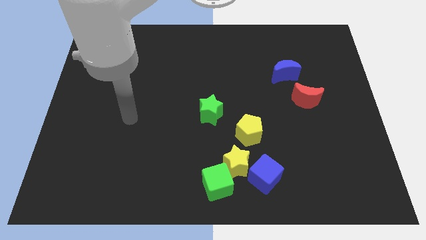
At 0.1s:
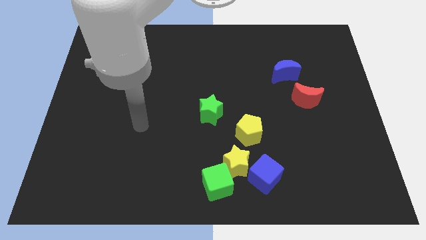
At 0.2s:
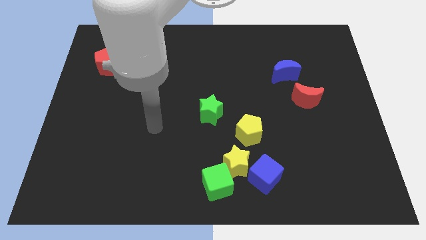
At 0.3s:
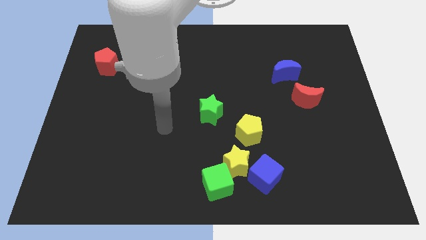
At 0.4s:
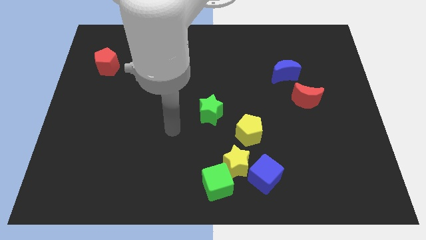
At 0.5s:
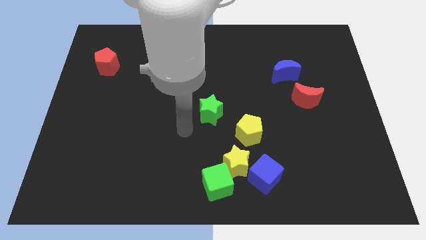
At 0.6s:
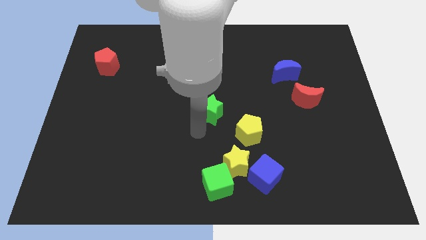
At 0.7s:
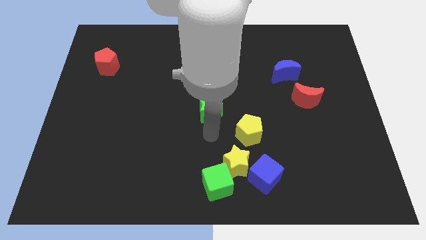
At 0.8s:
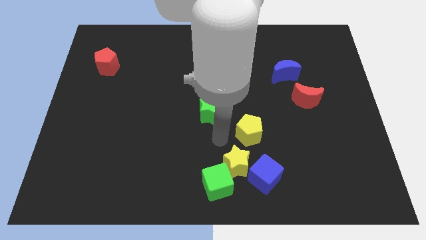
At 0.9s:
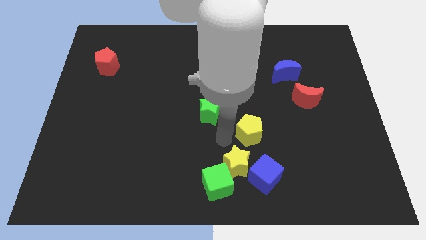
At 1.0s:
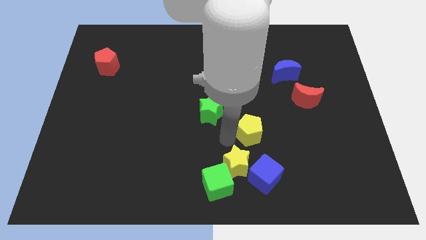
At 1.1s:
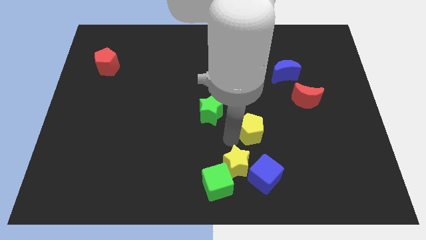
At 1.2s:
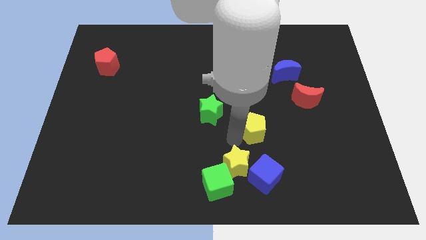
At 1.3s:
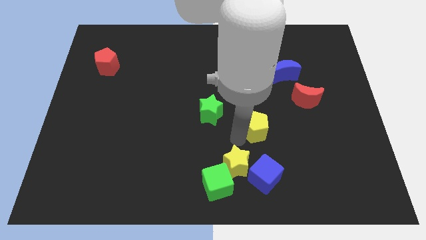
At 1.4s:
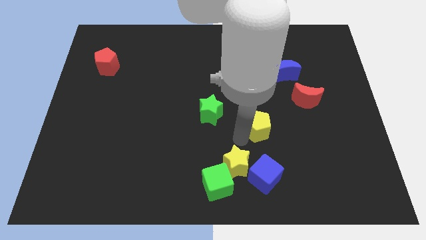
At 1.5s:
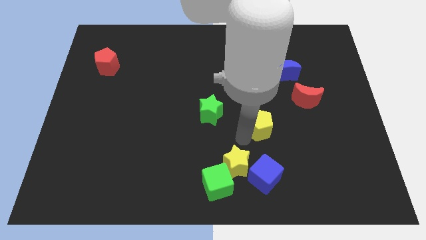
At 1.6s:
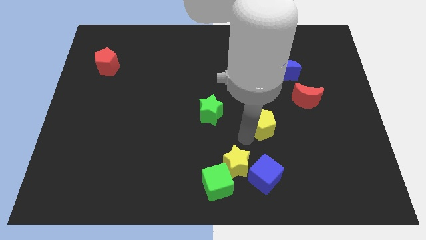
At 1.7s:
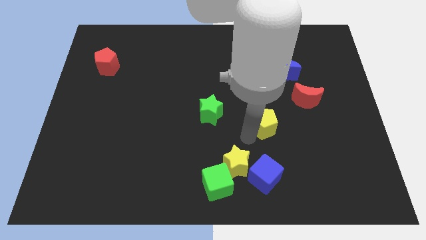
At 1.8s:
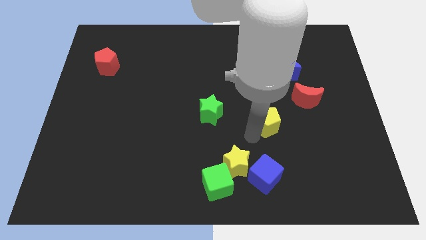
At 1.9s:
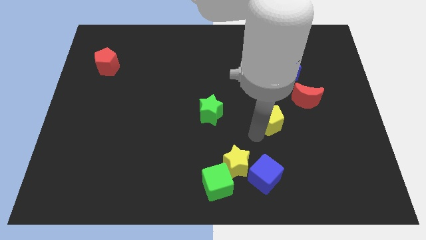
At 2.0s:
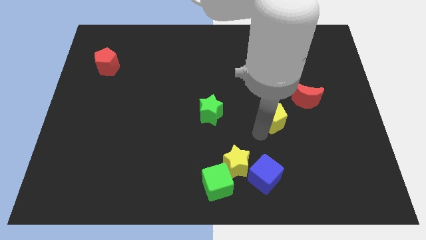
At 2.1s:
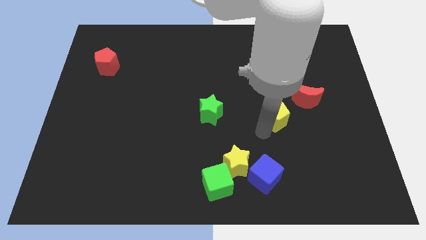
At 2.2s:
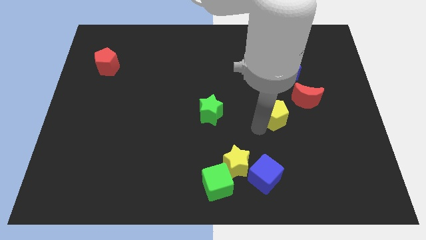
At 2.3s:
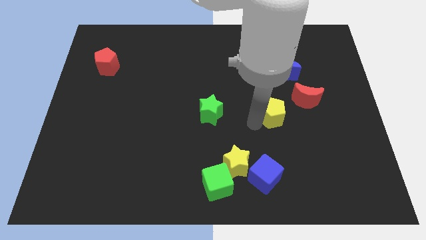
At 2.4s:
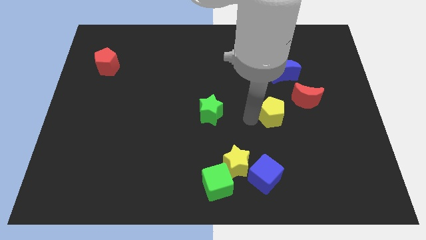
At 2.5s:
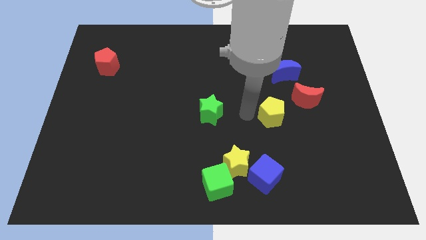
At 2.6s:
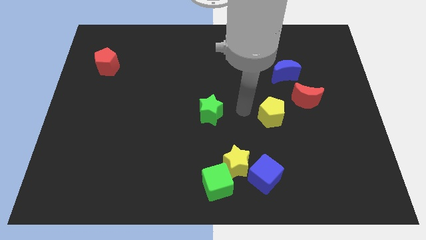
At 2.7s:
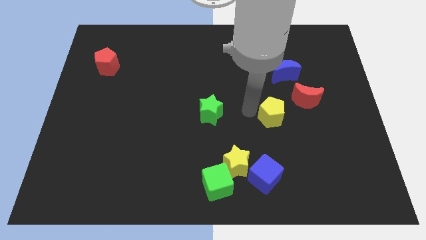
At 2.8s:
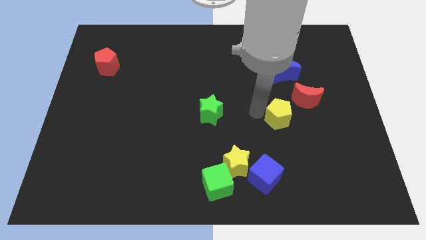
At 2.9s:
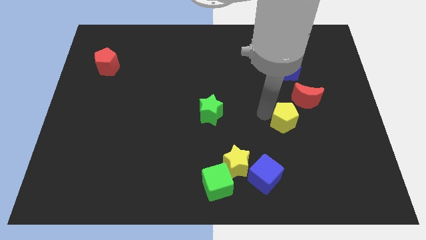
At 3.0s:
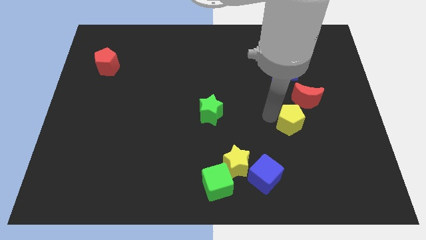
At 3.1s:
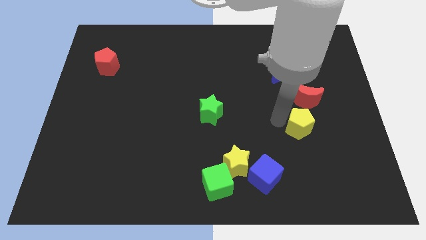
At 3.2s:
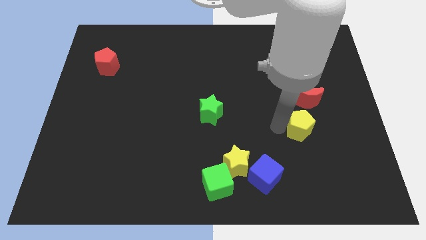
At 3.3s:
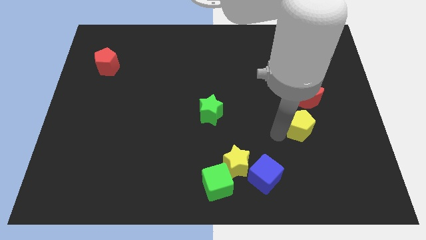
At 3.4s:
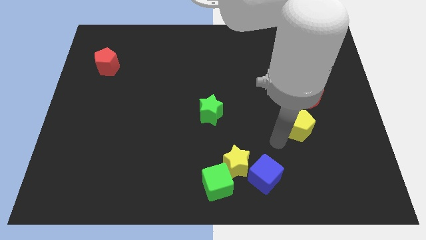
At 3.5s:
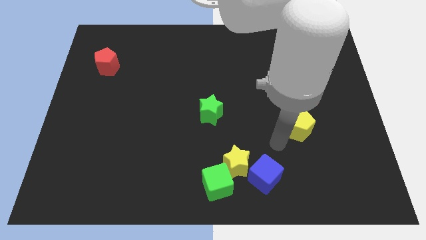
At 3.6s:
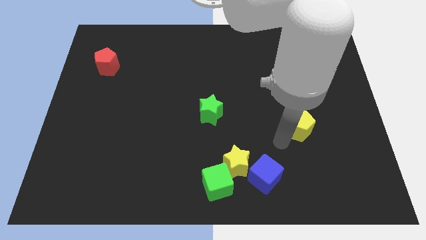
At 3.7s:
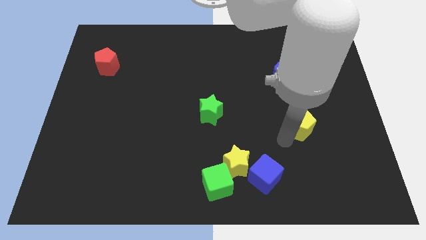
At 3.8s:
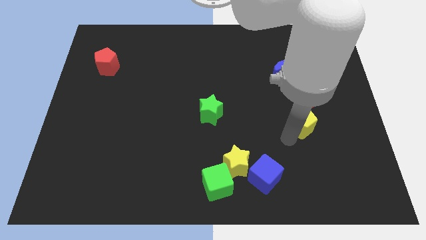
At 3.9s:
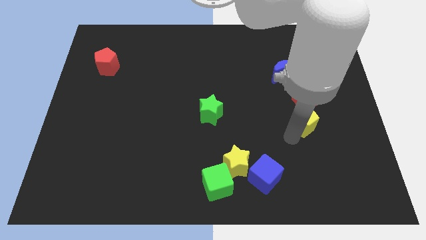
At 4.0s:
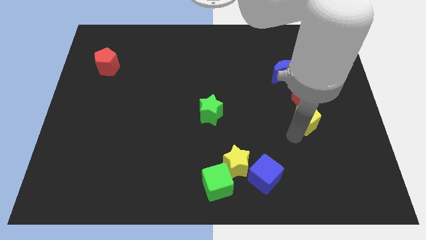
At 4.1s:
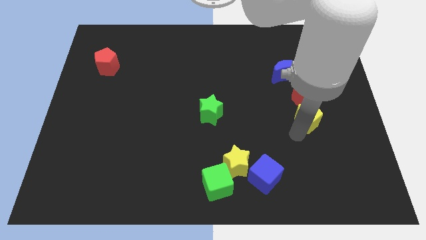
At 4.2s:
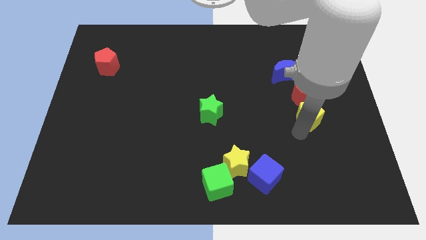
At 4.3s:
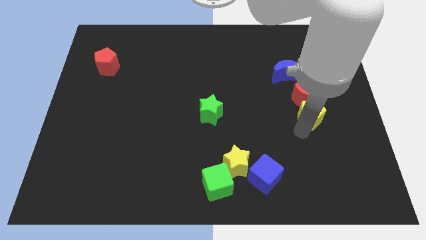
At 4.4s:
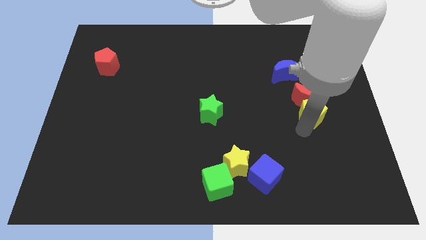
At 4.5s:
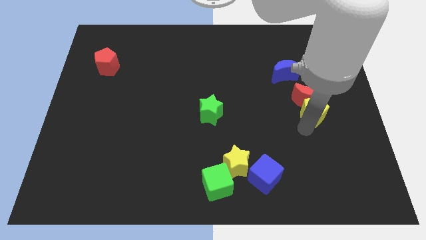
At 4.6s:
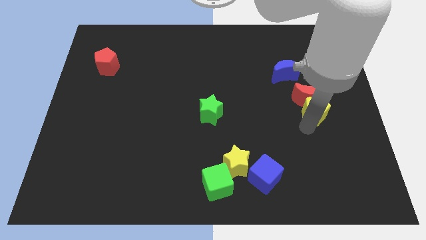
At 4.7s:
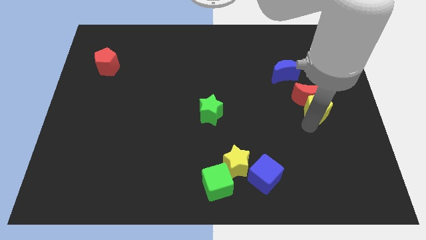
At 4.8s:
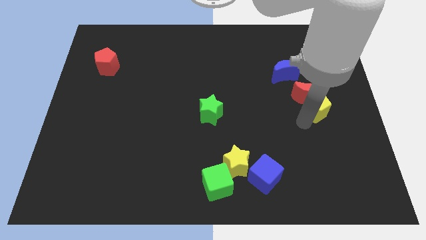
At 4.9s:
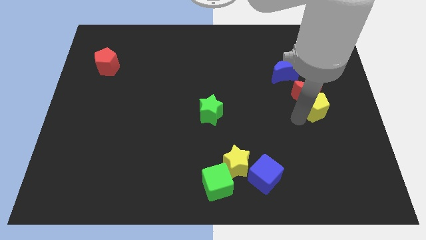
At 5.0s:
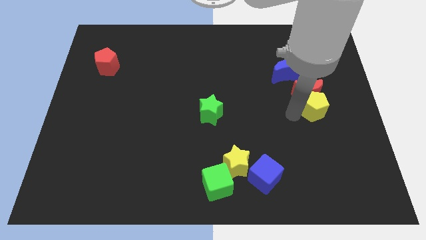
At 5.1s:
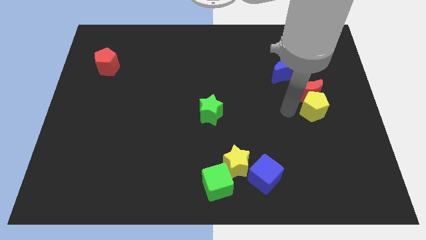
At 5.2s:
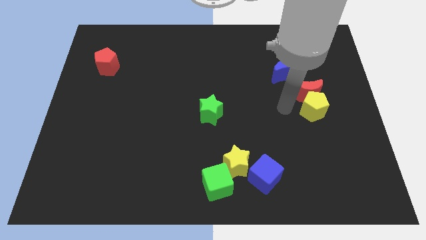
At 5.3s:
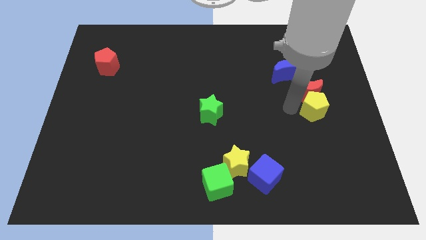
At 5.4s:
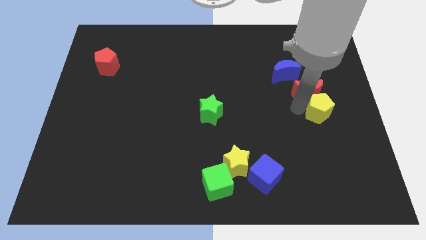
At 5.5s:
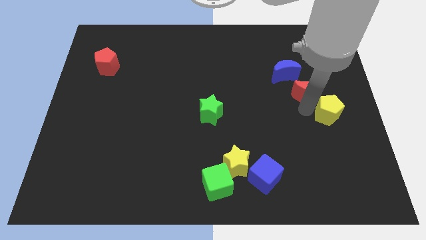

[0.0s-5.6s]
move the yellow pentagon to the center right

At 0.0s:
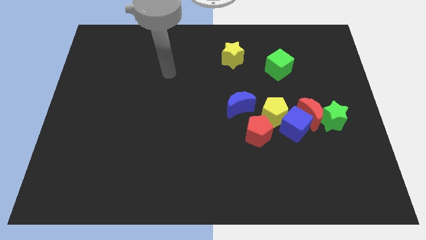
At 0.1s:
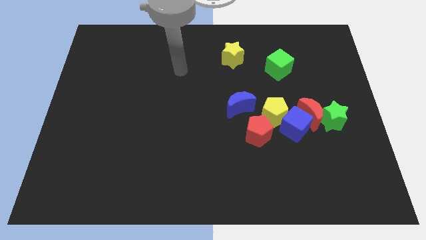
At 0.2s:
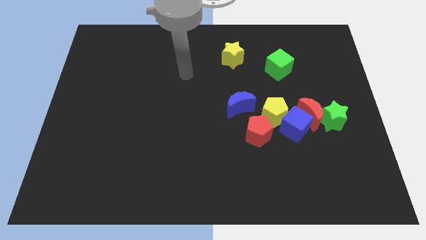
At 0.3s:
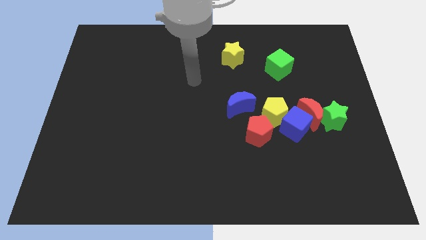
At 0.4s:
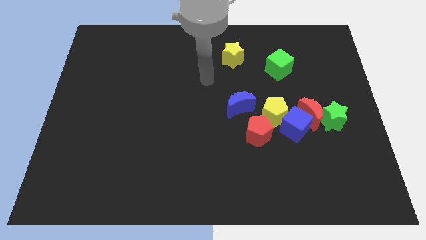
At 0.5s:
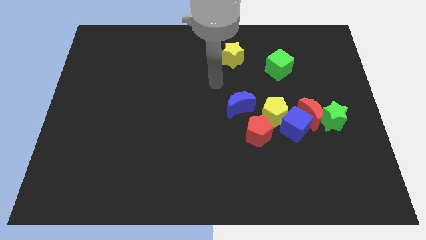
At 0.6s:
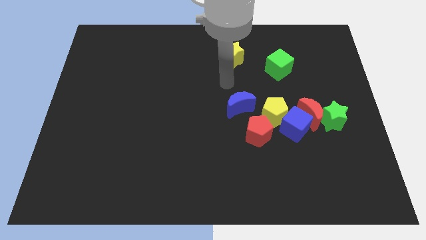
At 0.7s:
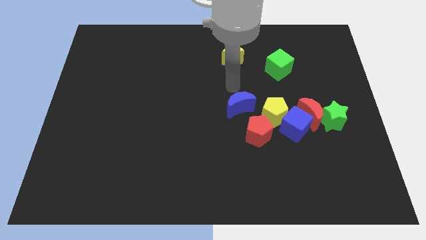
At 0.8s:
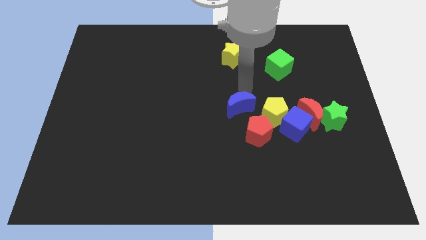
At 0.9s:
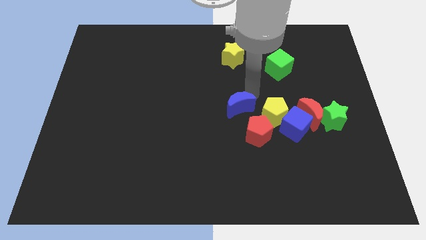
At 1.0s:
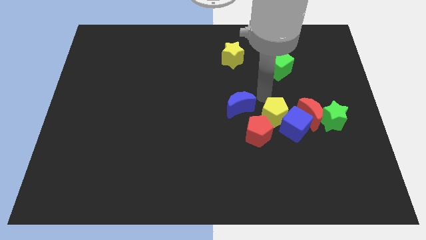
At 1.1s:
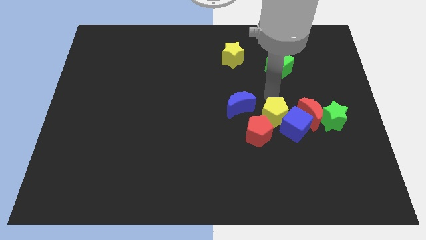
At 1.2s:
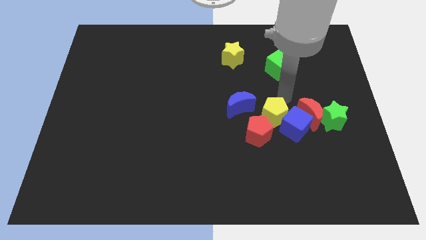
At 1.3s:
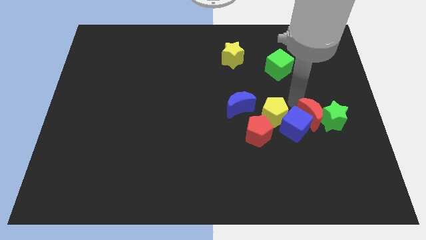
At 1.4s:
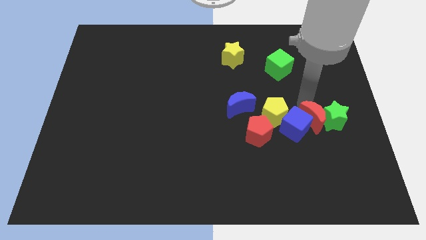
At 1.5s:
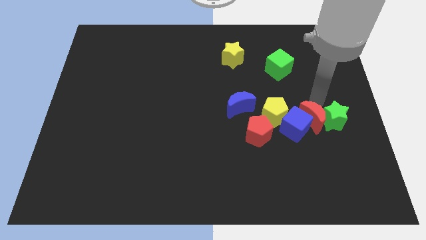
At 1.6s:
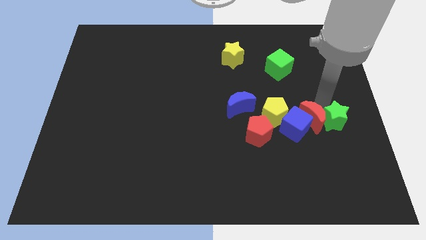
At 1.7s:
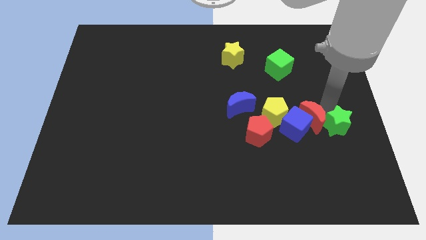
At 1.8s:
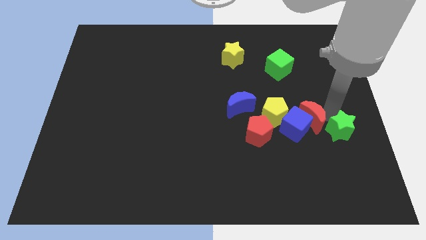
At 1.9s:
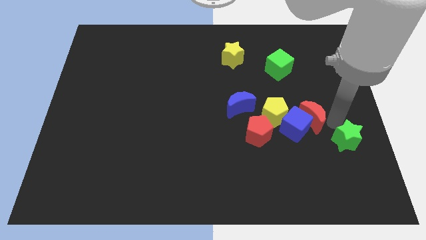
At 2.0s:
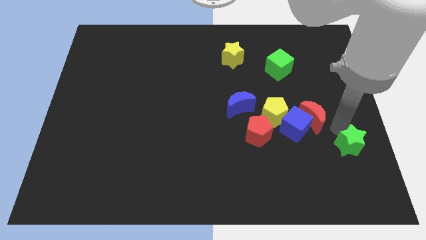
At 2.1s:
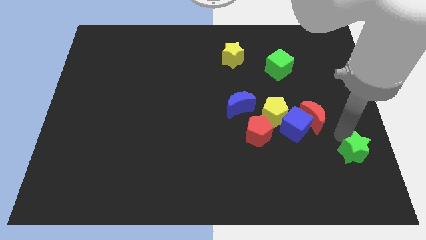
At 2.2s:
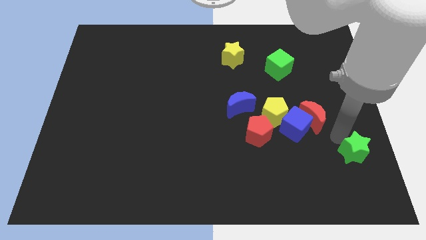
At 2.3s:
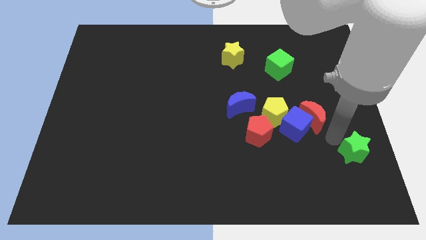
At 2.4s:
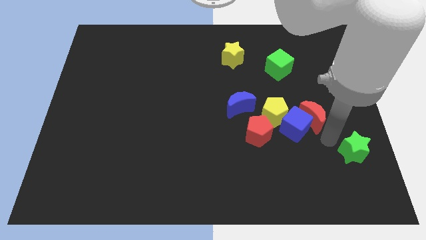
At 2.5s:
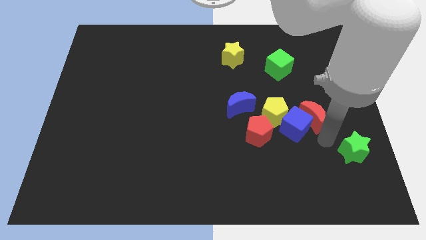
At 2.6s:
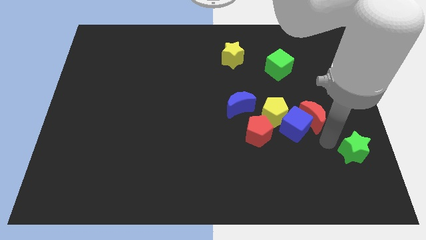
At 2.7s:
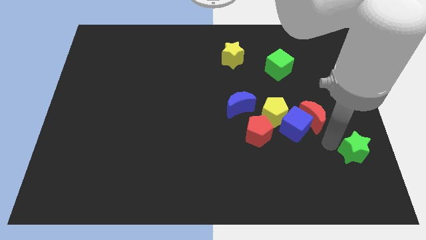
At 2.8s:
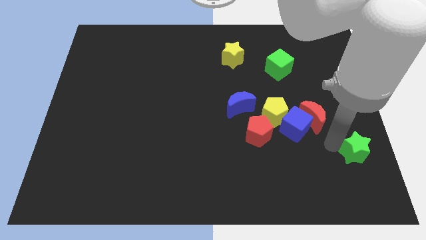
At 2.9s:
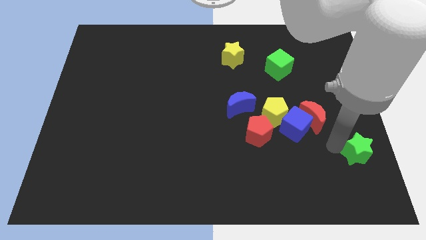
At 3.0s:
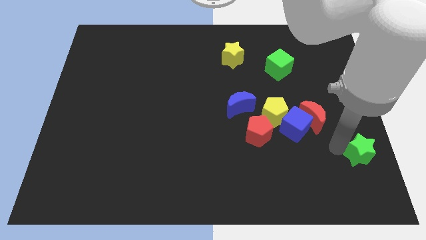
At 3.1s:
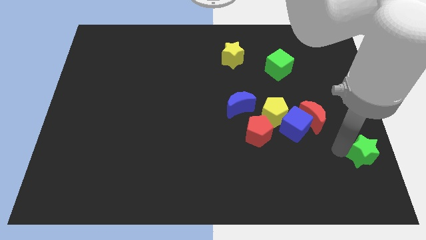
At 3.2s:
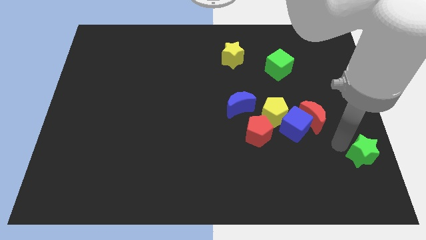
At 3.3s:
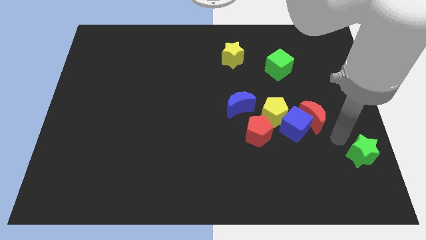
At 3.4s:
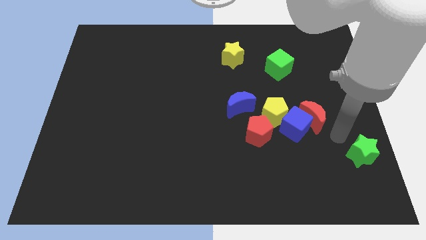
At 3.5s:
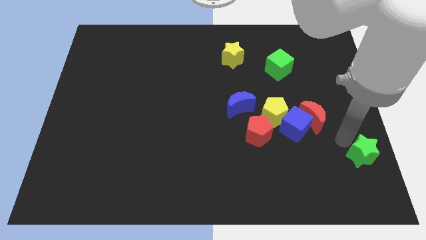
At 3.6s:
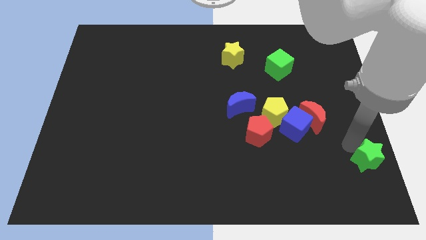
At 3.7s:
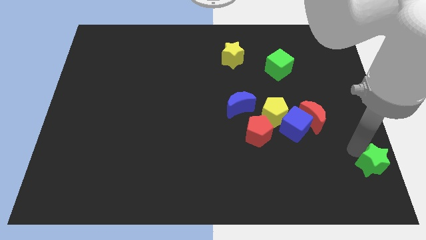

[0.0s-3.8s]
move the green star to the bottom right corner
